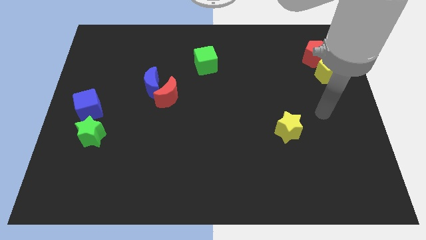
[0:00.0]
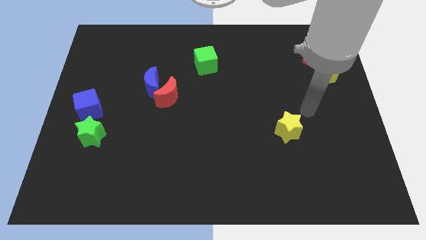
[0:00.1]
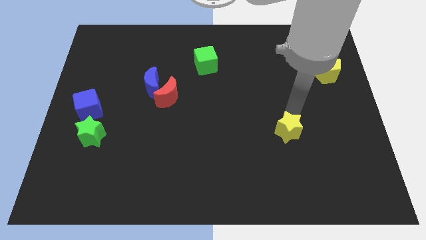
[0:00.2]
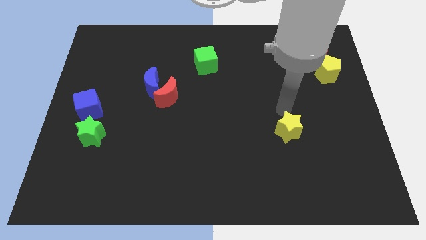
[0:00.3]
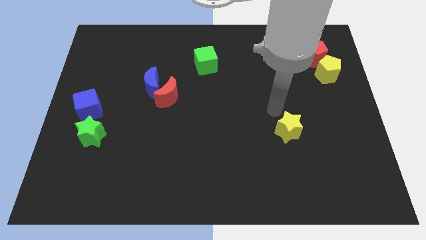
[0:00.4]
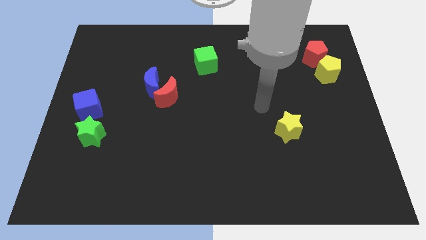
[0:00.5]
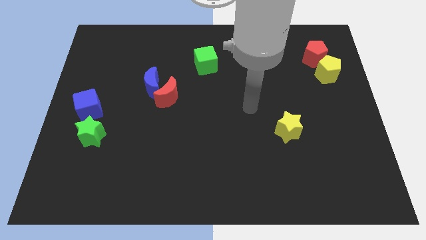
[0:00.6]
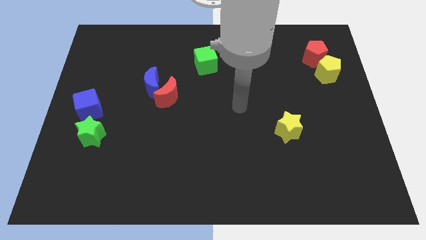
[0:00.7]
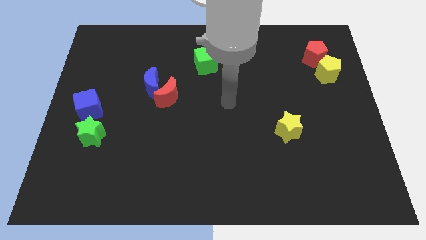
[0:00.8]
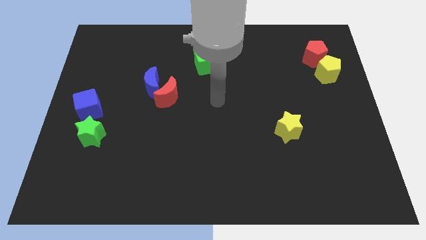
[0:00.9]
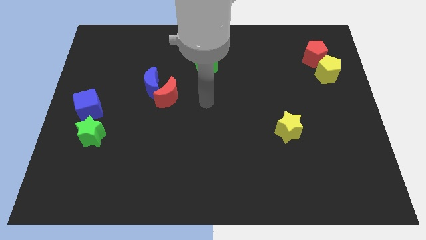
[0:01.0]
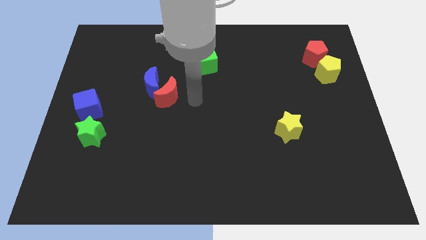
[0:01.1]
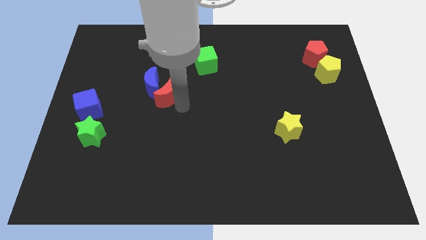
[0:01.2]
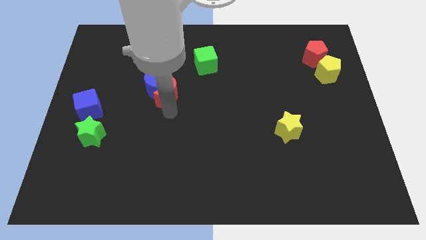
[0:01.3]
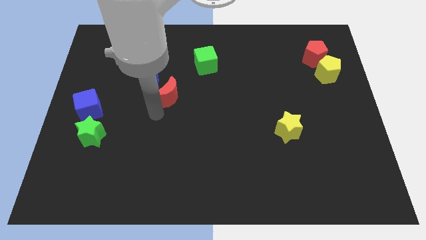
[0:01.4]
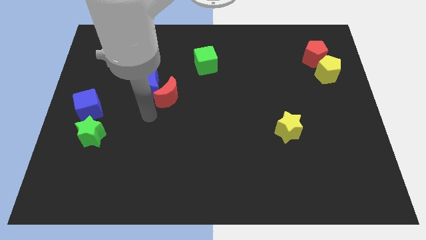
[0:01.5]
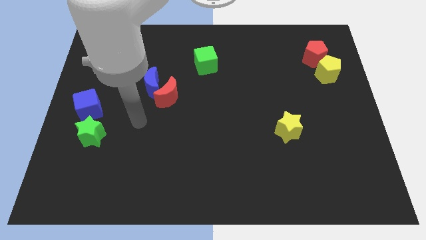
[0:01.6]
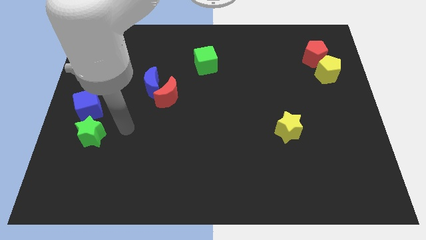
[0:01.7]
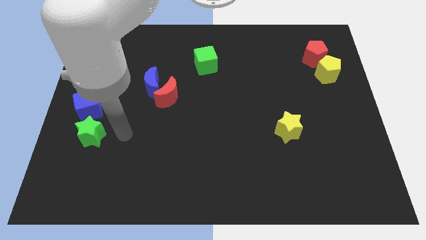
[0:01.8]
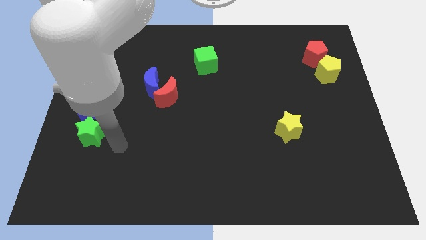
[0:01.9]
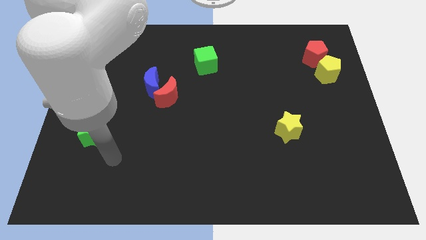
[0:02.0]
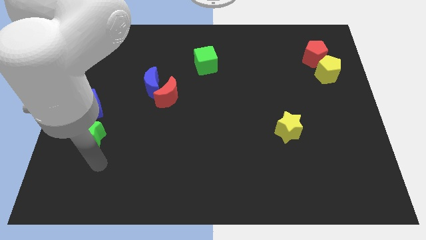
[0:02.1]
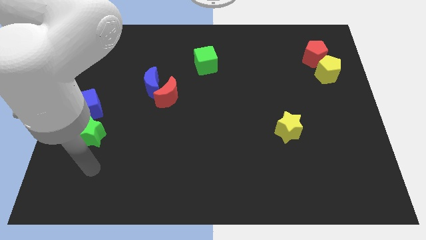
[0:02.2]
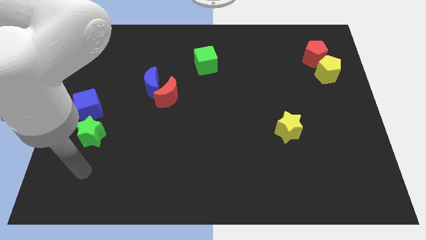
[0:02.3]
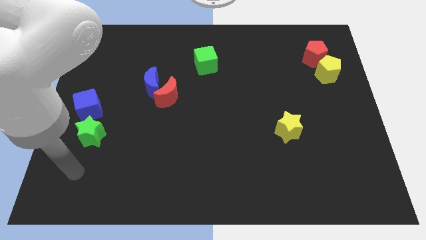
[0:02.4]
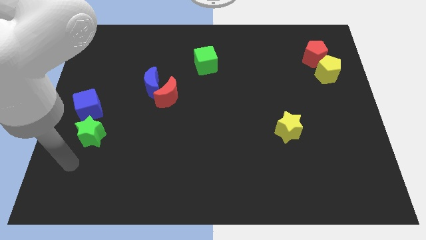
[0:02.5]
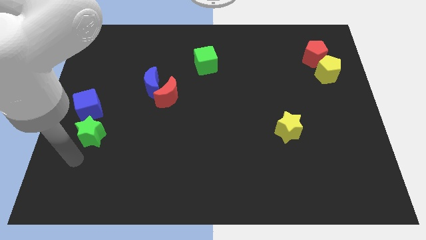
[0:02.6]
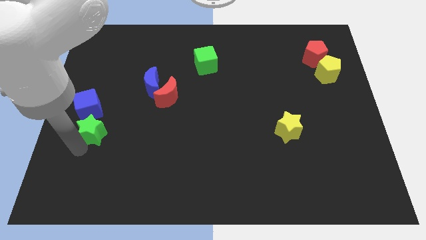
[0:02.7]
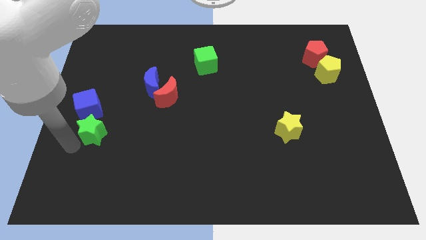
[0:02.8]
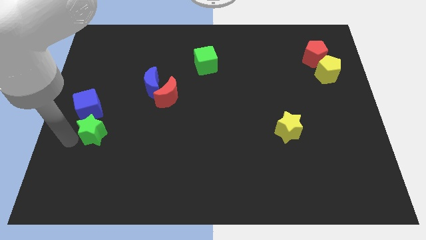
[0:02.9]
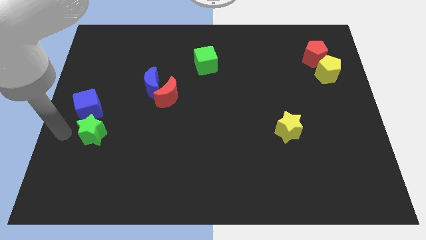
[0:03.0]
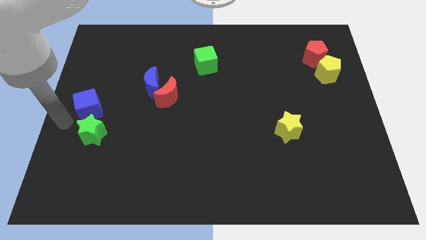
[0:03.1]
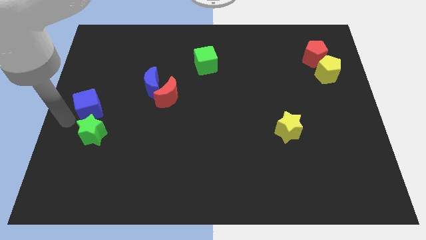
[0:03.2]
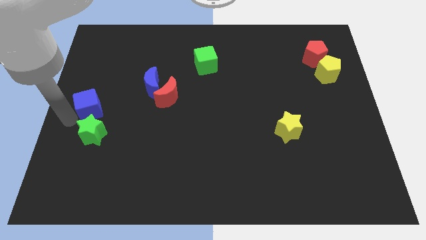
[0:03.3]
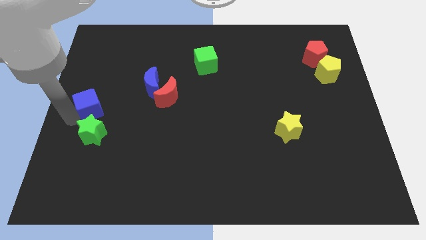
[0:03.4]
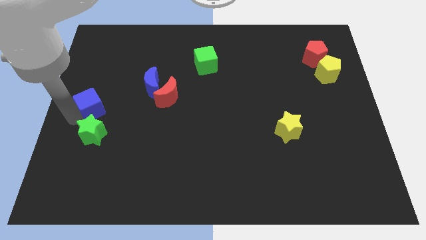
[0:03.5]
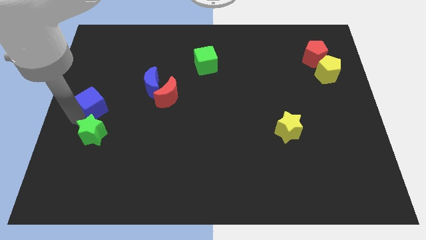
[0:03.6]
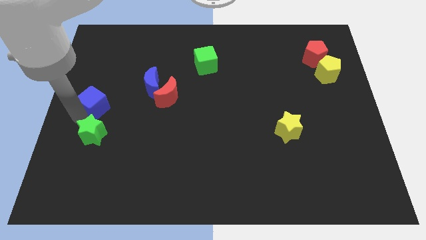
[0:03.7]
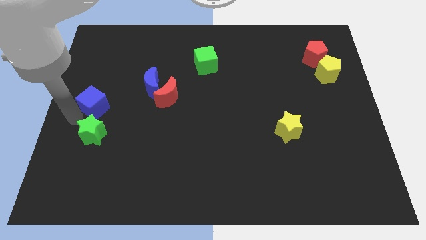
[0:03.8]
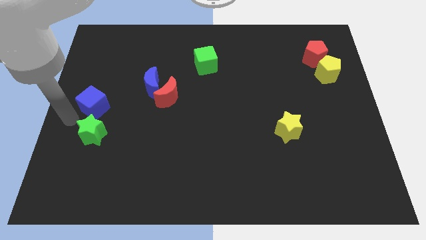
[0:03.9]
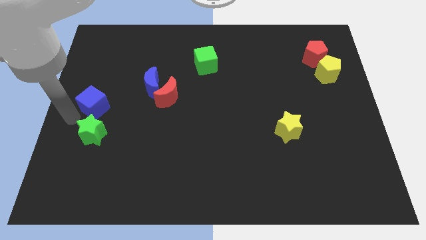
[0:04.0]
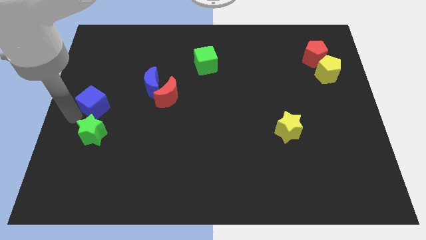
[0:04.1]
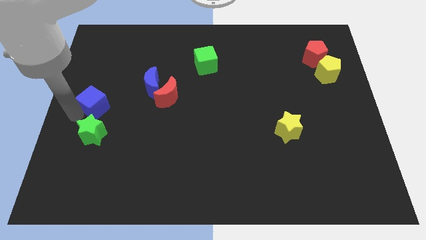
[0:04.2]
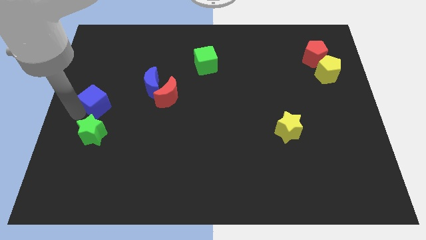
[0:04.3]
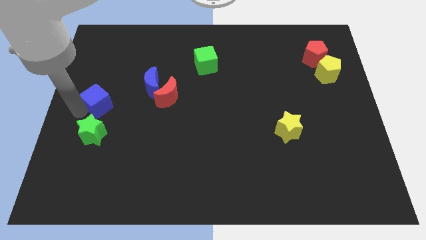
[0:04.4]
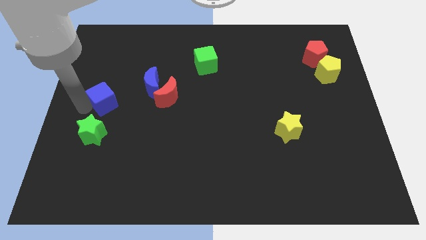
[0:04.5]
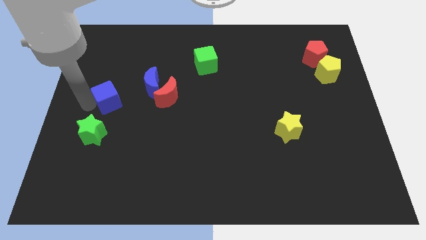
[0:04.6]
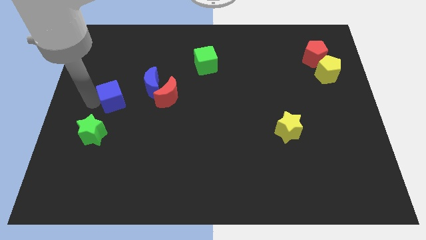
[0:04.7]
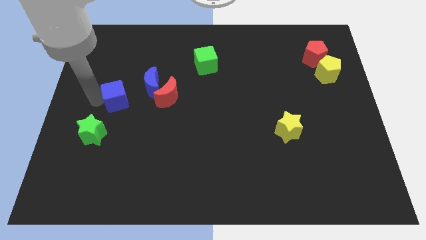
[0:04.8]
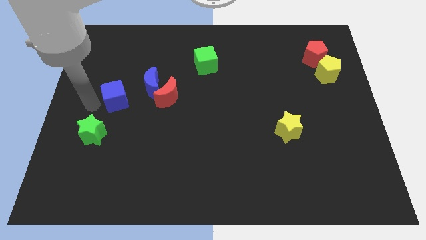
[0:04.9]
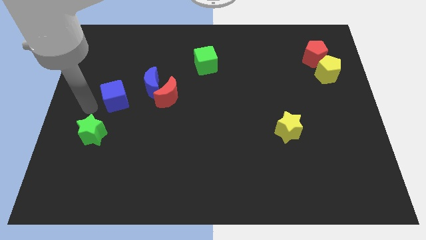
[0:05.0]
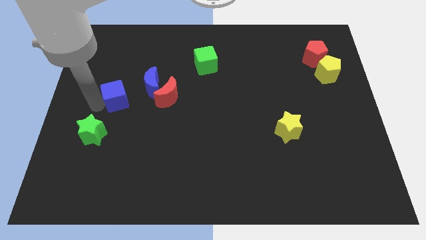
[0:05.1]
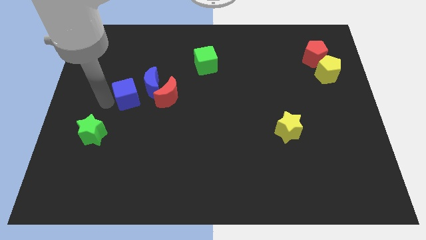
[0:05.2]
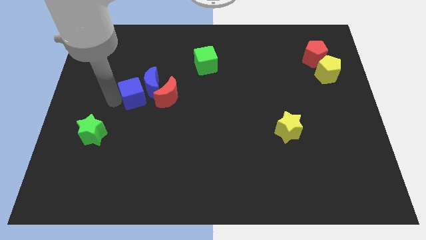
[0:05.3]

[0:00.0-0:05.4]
move the blue cube next to the blue moon

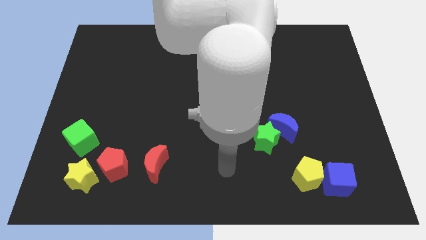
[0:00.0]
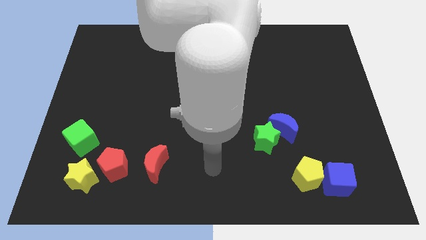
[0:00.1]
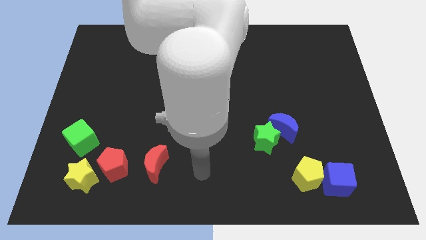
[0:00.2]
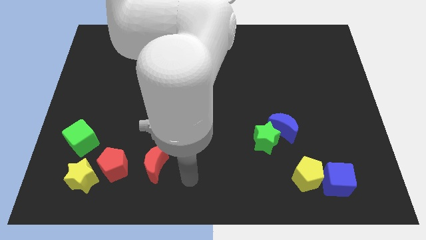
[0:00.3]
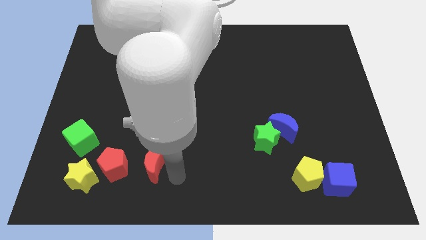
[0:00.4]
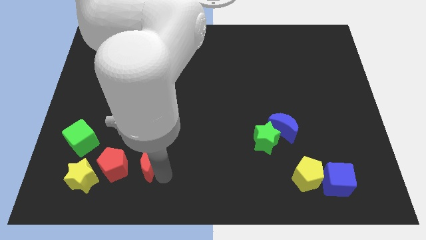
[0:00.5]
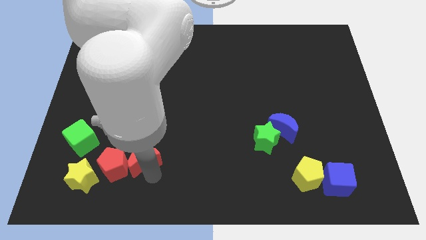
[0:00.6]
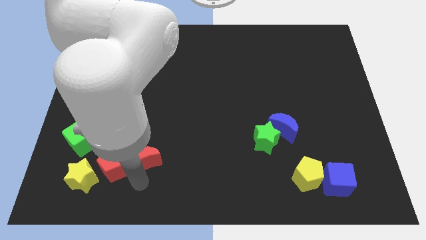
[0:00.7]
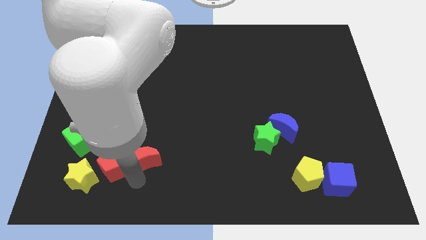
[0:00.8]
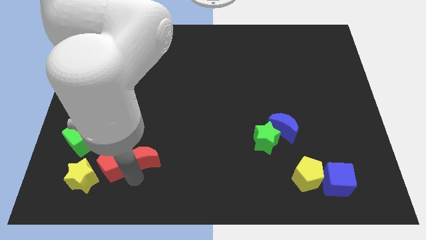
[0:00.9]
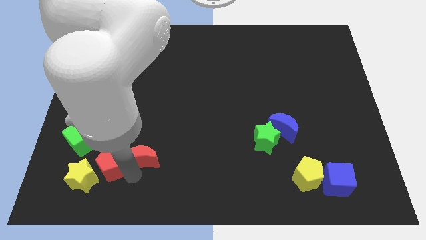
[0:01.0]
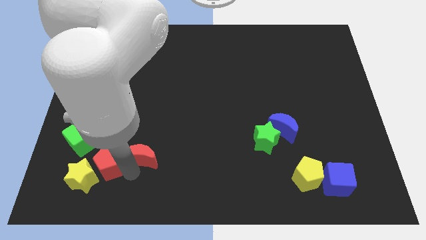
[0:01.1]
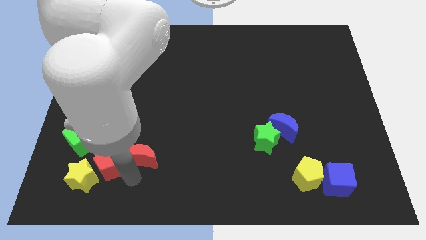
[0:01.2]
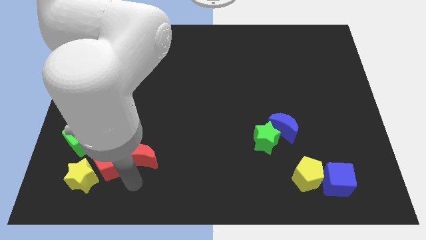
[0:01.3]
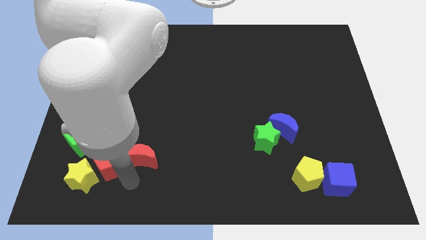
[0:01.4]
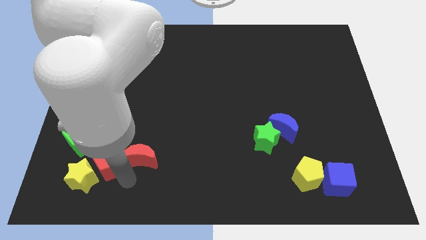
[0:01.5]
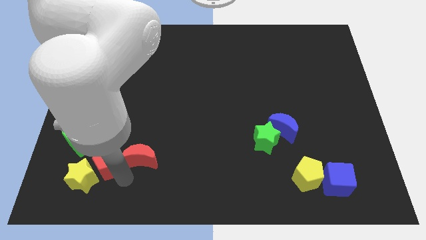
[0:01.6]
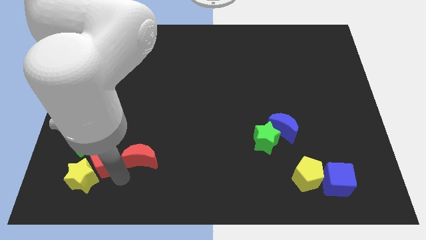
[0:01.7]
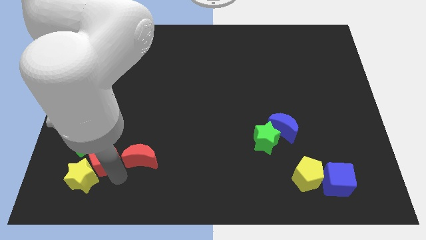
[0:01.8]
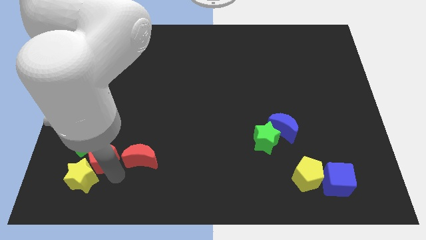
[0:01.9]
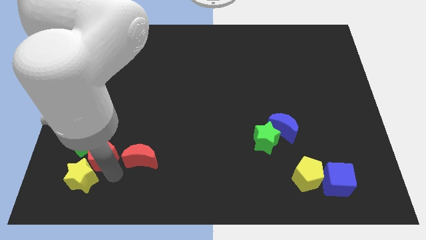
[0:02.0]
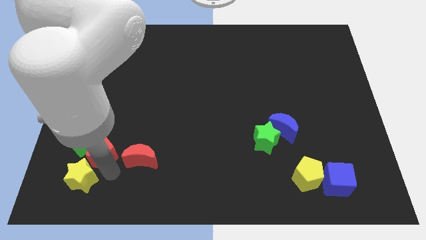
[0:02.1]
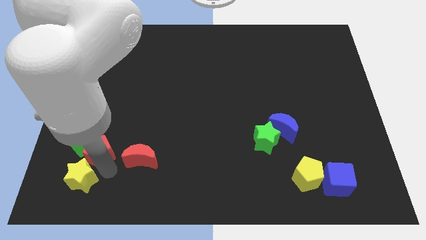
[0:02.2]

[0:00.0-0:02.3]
slide the red pentagon to the green cube

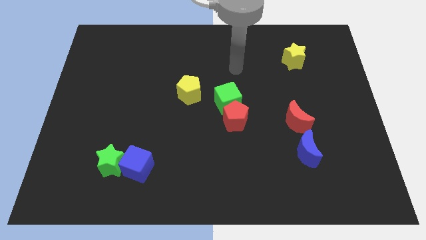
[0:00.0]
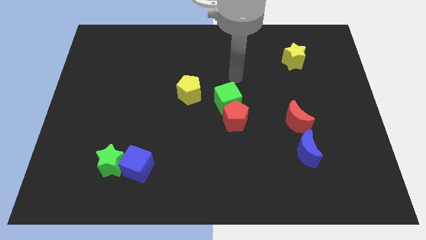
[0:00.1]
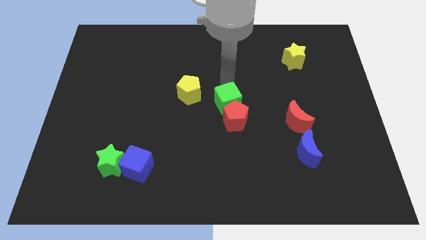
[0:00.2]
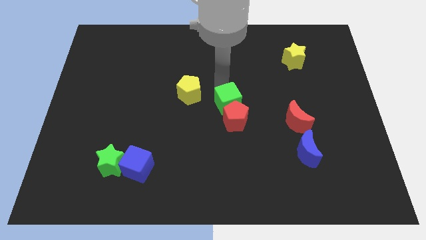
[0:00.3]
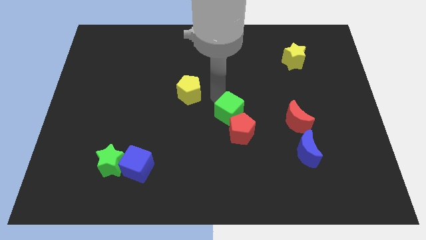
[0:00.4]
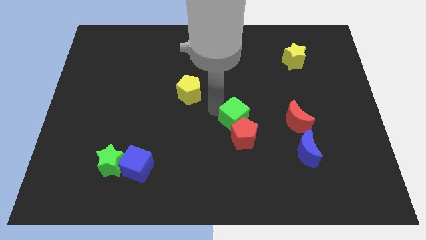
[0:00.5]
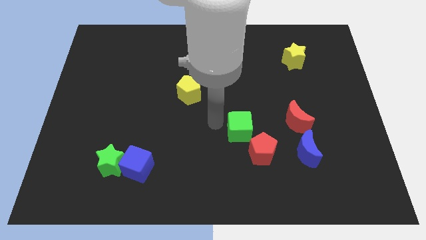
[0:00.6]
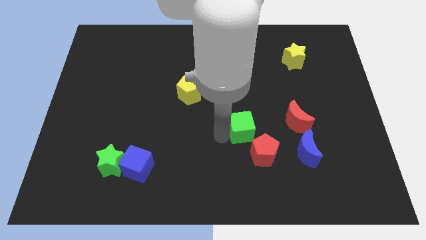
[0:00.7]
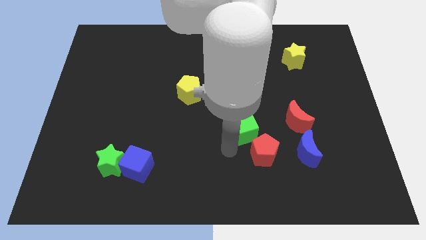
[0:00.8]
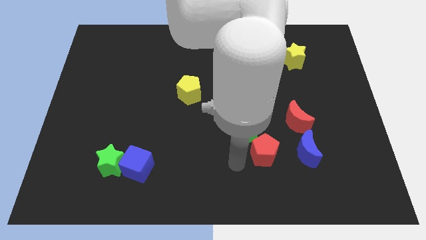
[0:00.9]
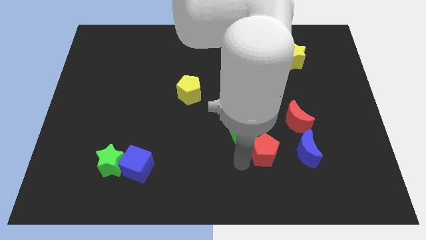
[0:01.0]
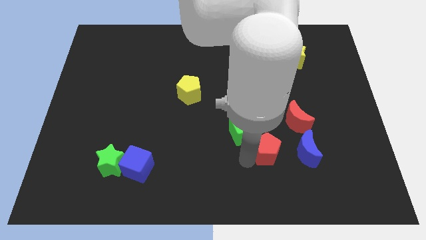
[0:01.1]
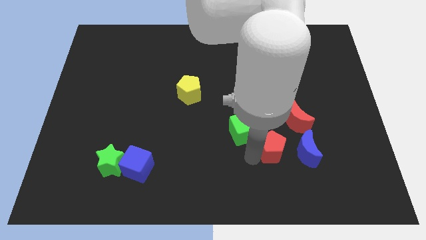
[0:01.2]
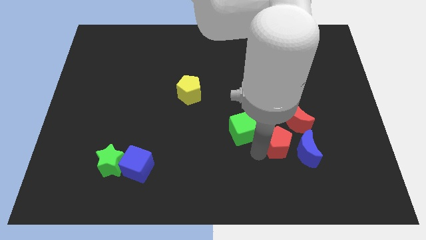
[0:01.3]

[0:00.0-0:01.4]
put the red pentagon next to the blue moon
